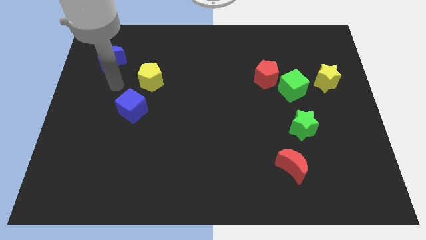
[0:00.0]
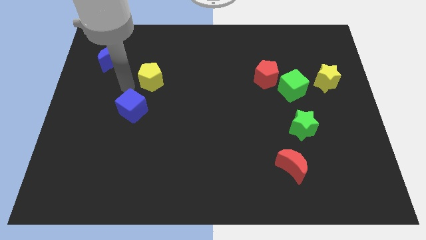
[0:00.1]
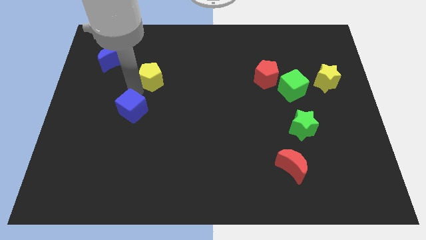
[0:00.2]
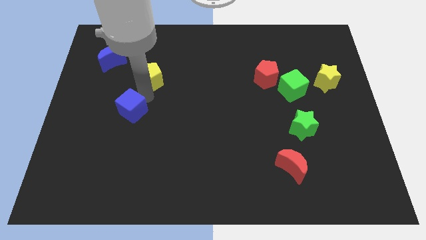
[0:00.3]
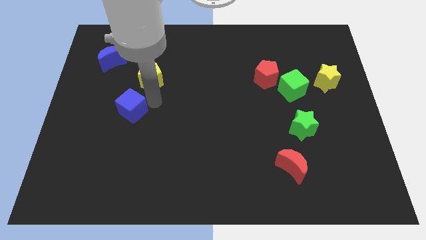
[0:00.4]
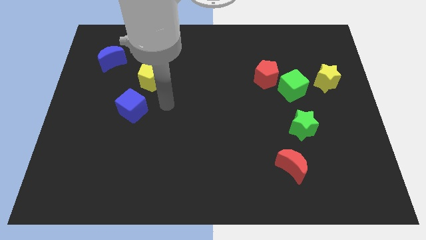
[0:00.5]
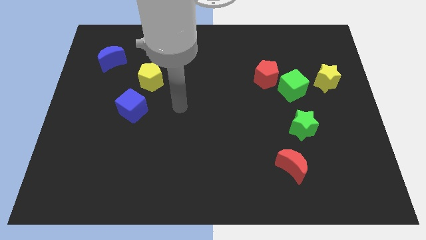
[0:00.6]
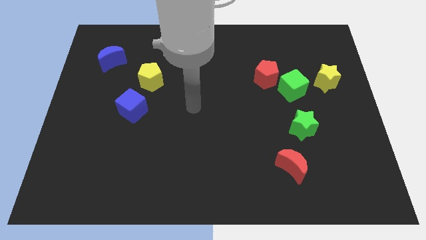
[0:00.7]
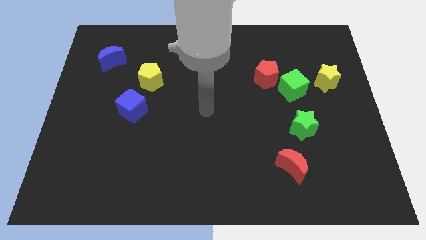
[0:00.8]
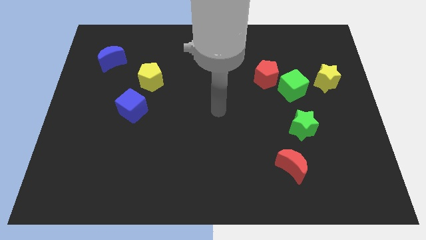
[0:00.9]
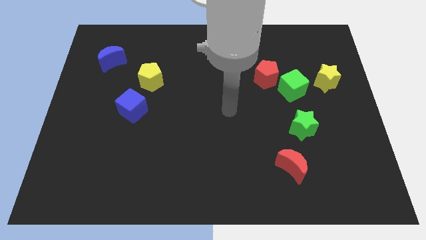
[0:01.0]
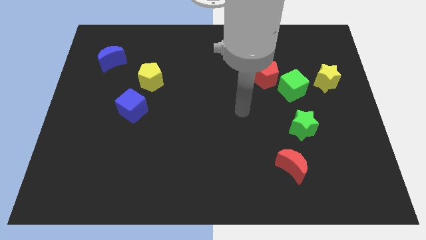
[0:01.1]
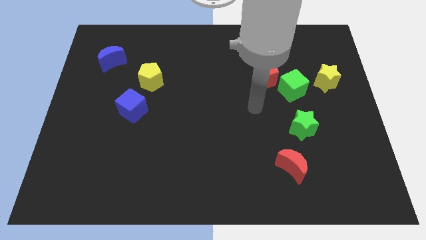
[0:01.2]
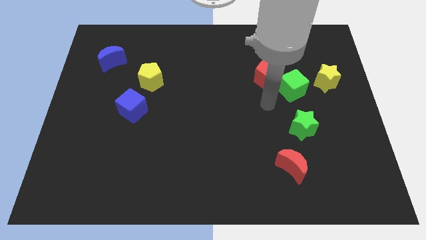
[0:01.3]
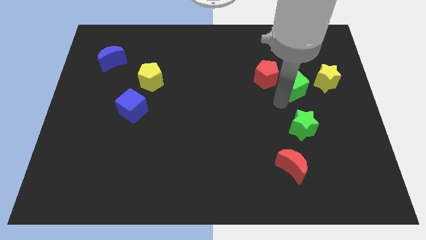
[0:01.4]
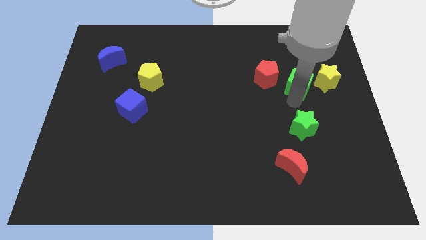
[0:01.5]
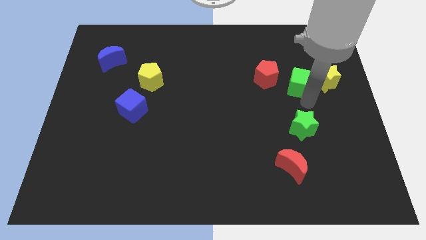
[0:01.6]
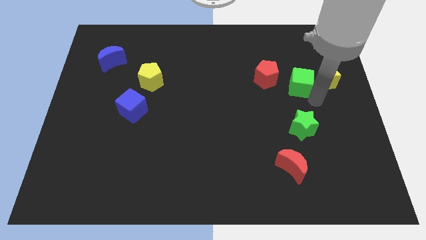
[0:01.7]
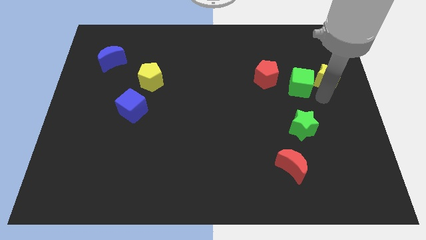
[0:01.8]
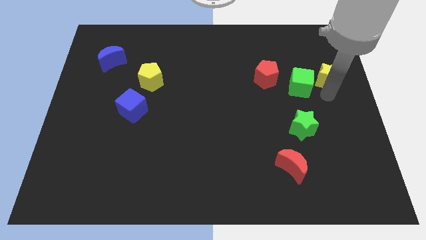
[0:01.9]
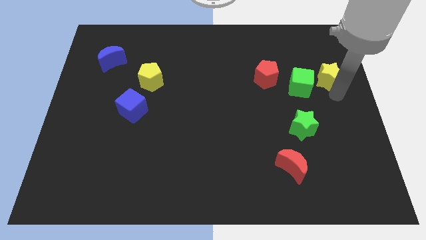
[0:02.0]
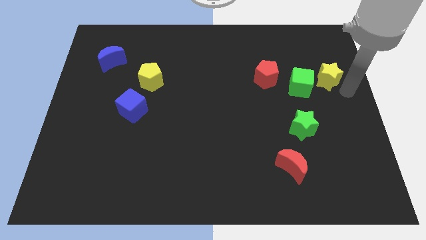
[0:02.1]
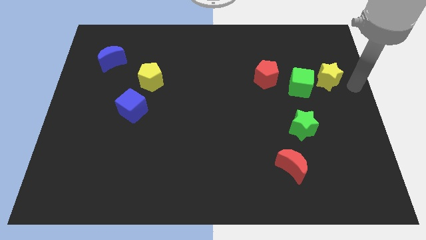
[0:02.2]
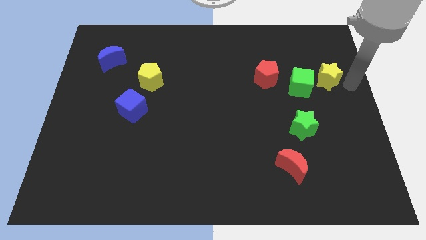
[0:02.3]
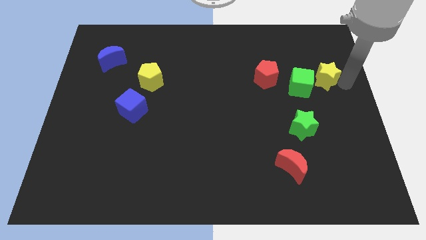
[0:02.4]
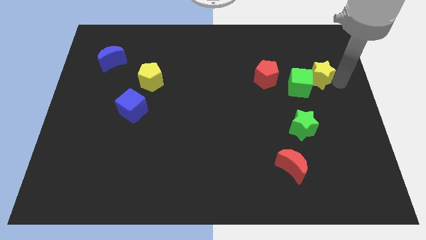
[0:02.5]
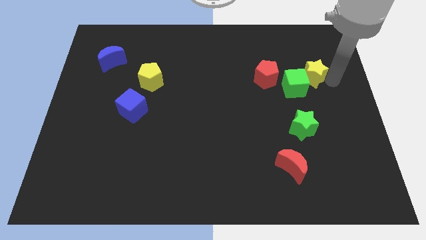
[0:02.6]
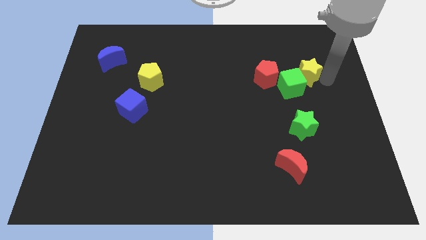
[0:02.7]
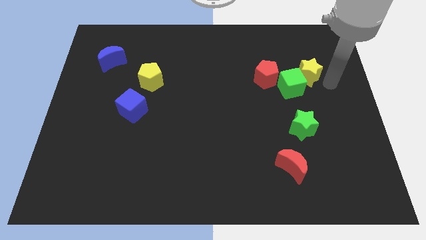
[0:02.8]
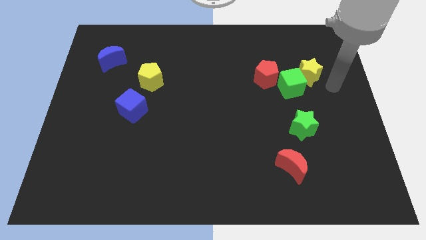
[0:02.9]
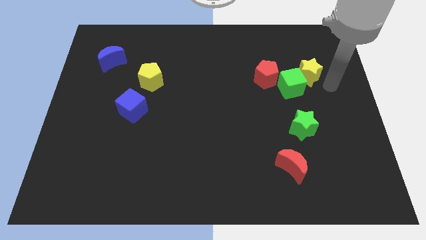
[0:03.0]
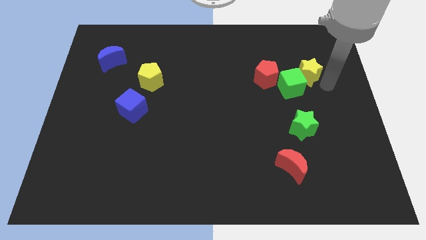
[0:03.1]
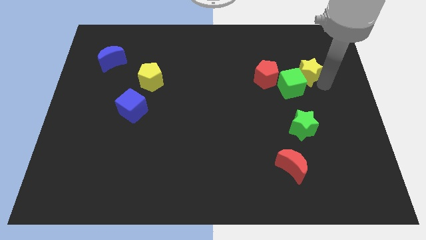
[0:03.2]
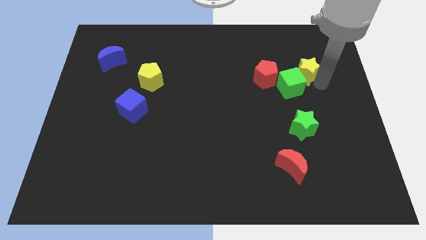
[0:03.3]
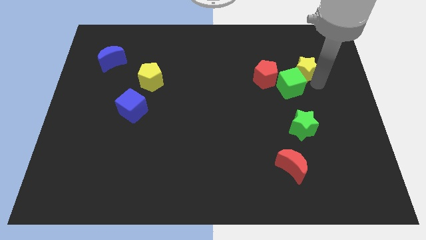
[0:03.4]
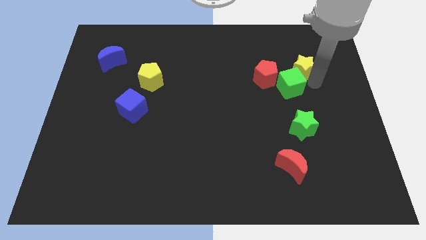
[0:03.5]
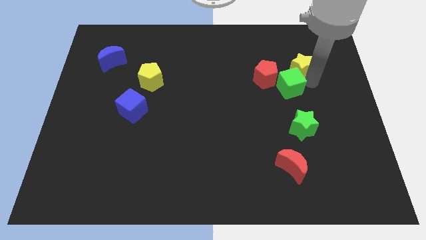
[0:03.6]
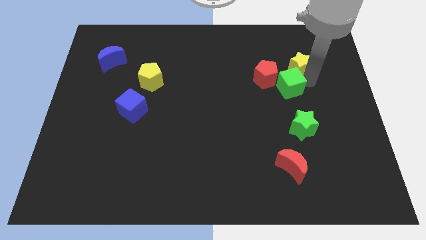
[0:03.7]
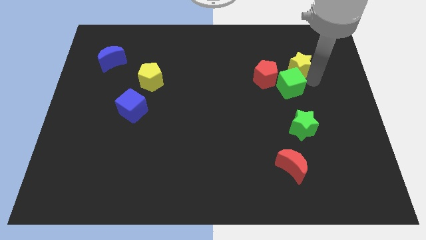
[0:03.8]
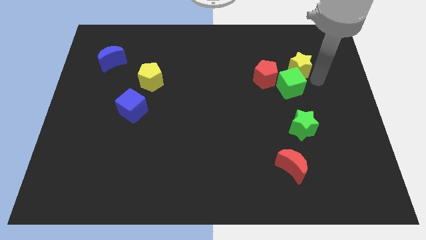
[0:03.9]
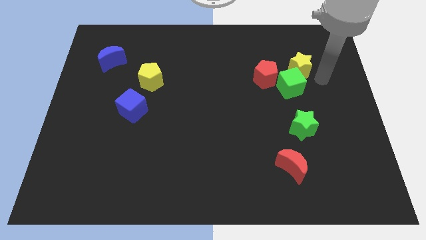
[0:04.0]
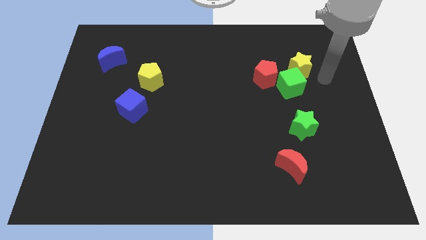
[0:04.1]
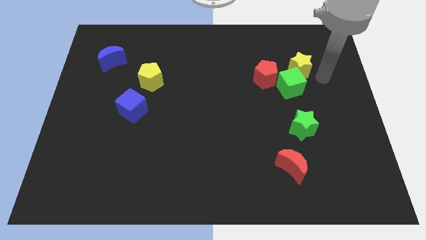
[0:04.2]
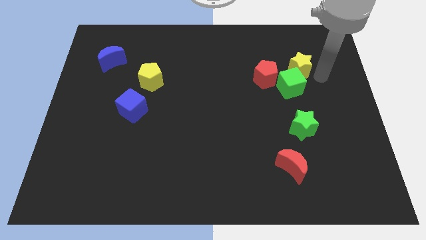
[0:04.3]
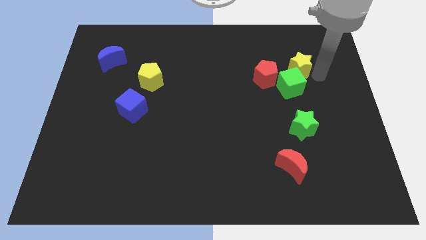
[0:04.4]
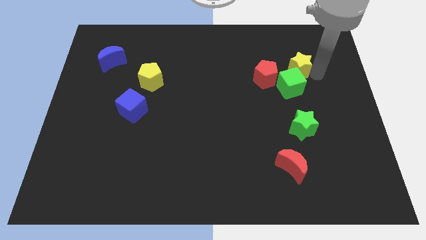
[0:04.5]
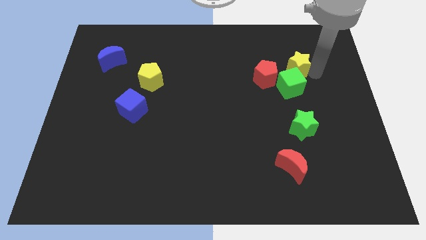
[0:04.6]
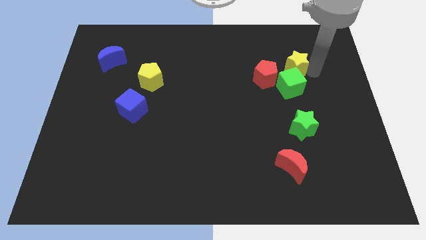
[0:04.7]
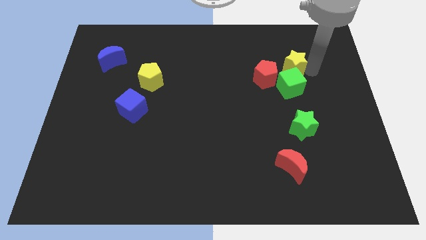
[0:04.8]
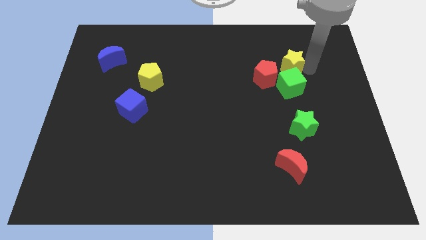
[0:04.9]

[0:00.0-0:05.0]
slightly move the yellow star to the left

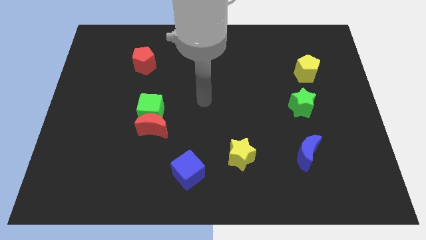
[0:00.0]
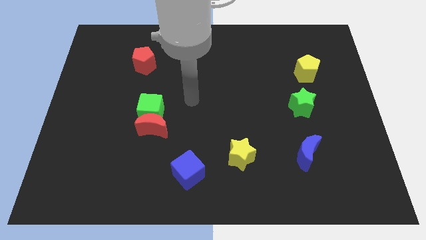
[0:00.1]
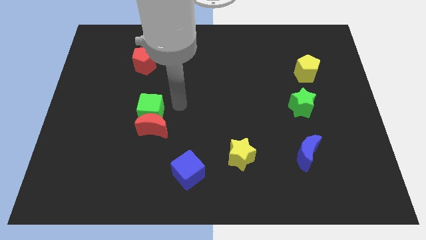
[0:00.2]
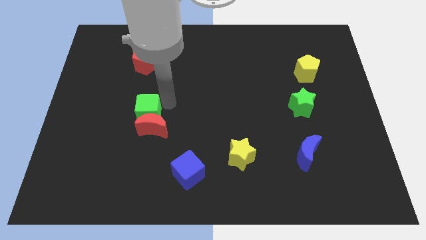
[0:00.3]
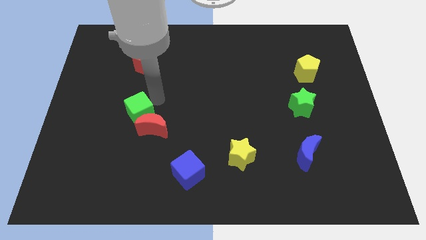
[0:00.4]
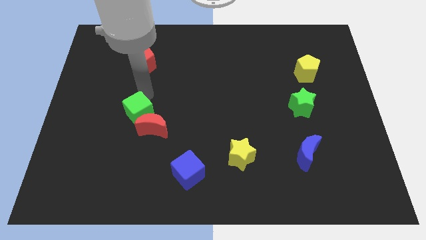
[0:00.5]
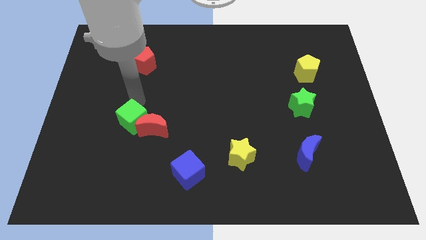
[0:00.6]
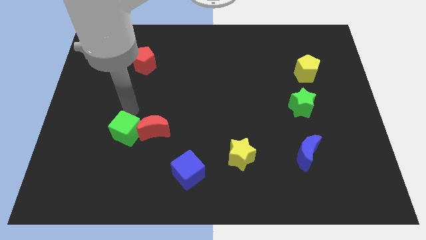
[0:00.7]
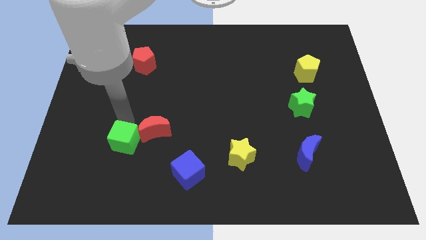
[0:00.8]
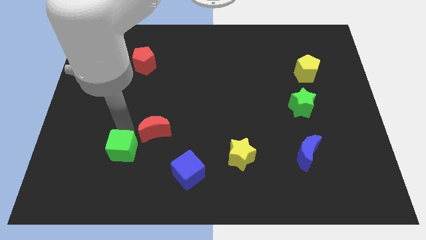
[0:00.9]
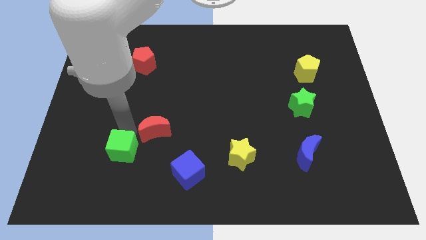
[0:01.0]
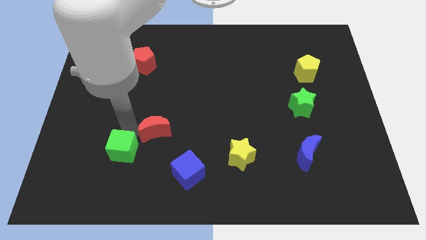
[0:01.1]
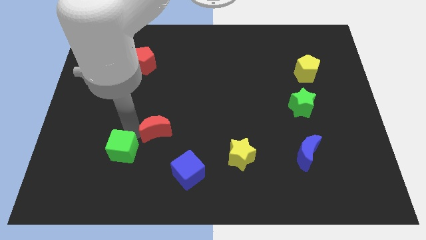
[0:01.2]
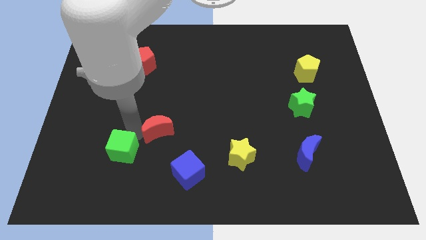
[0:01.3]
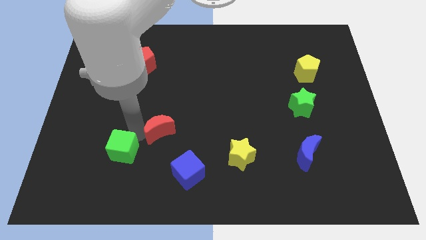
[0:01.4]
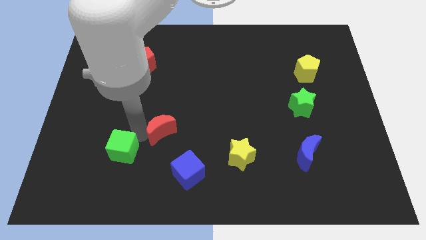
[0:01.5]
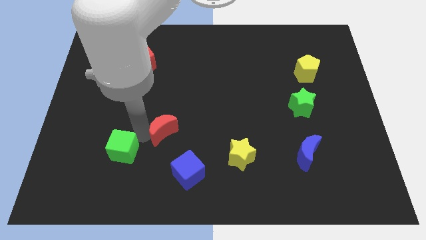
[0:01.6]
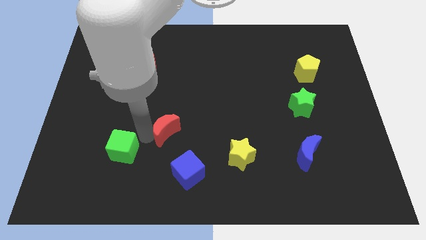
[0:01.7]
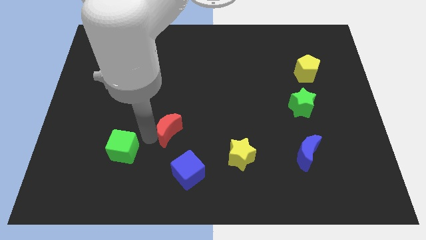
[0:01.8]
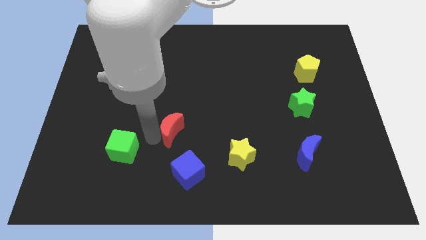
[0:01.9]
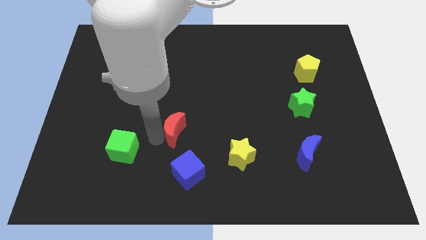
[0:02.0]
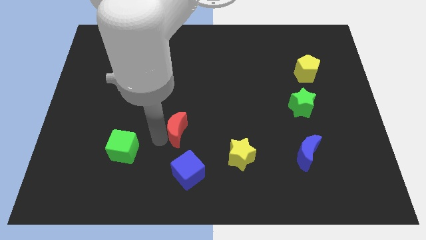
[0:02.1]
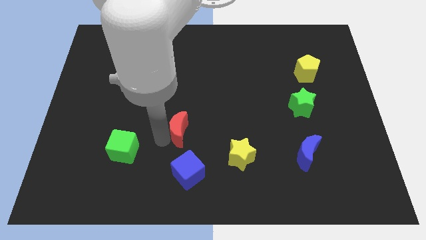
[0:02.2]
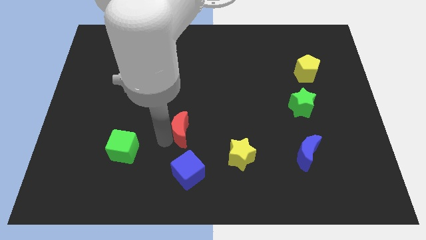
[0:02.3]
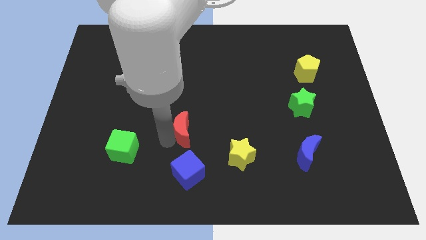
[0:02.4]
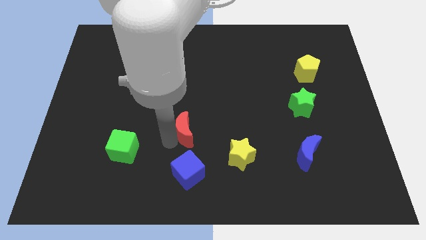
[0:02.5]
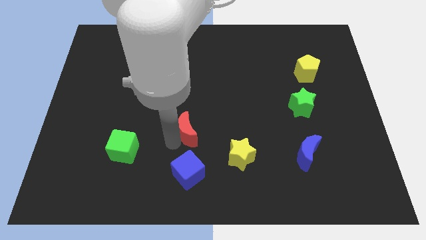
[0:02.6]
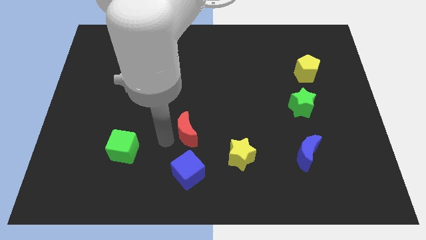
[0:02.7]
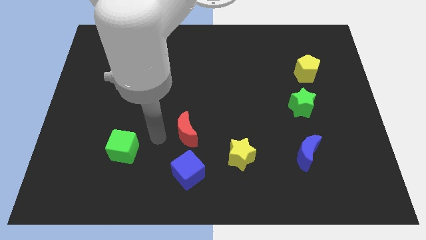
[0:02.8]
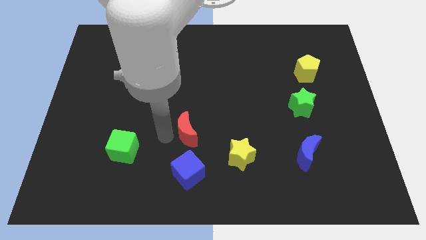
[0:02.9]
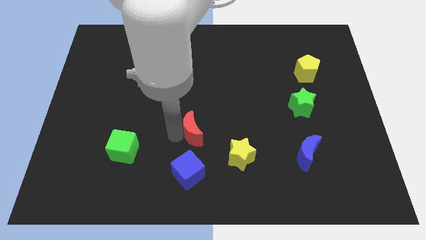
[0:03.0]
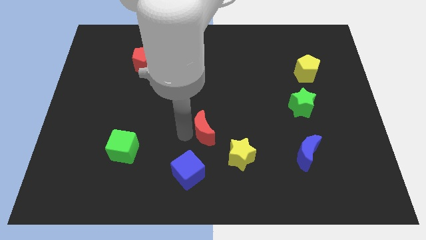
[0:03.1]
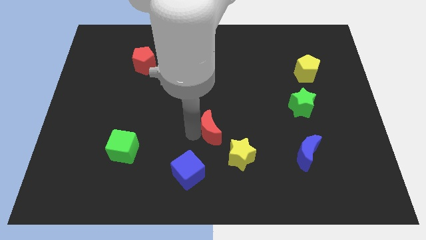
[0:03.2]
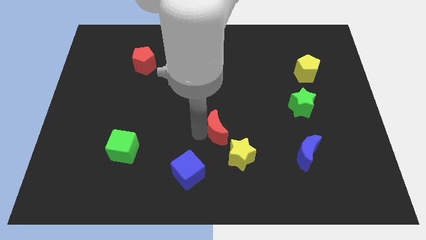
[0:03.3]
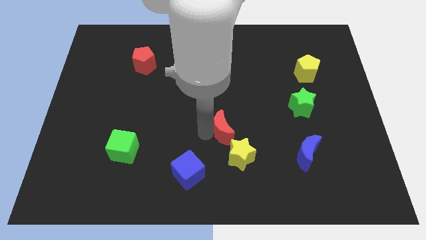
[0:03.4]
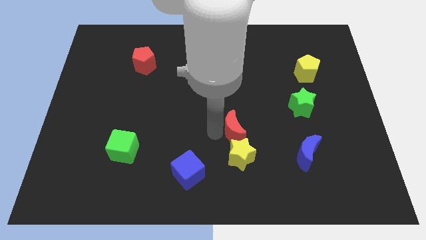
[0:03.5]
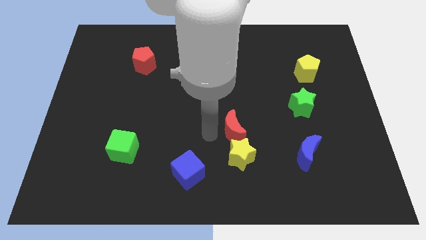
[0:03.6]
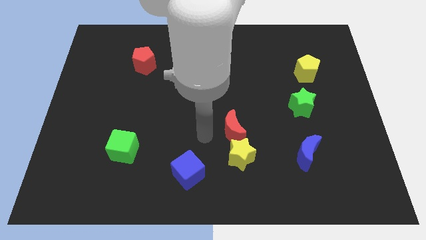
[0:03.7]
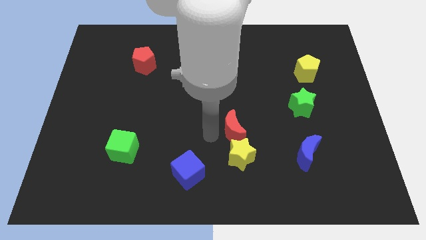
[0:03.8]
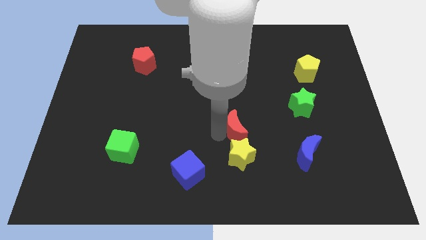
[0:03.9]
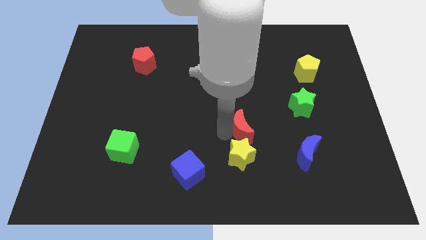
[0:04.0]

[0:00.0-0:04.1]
push the red moon right
